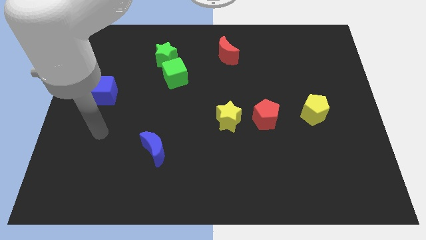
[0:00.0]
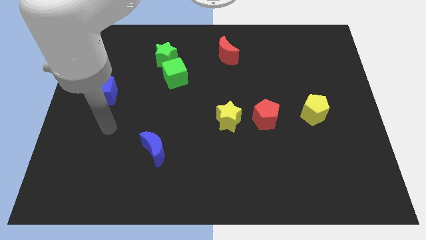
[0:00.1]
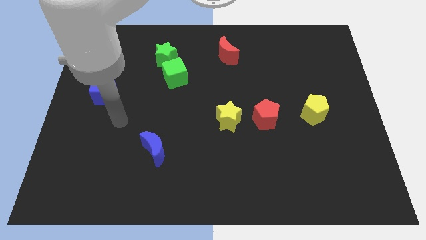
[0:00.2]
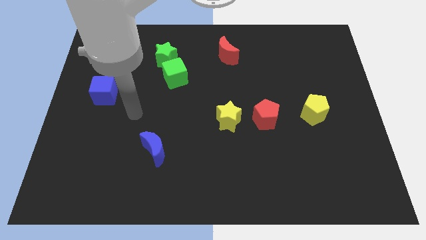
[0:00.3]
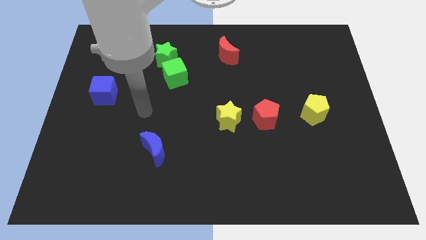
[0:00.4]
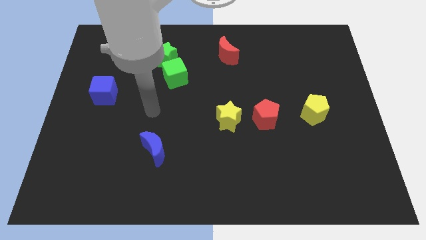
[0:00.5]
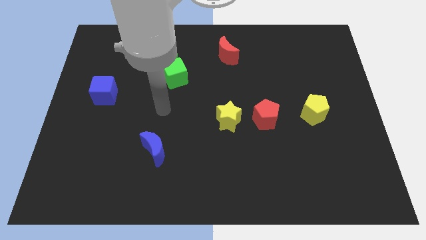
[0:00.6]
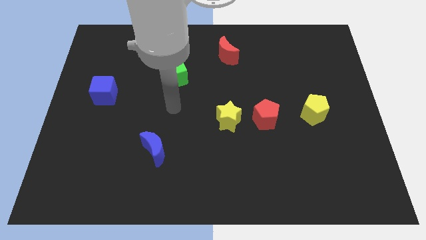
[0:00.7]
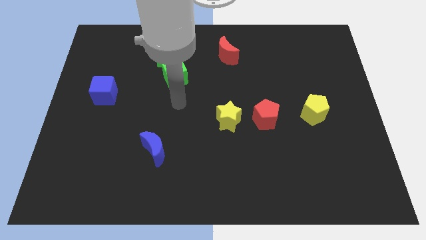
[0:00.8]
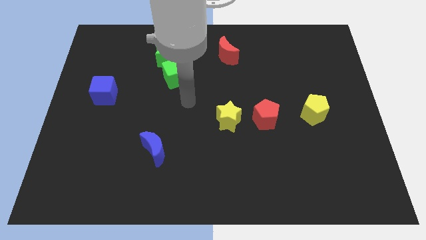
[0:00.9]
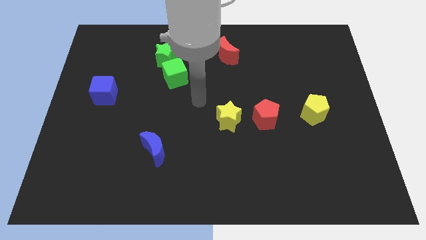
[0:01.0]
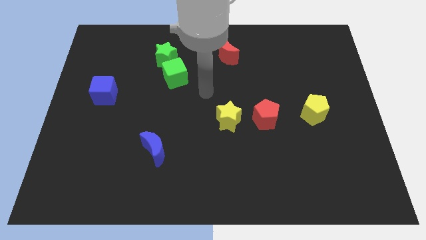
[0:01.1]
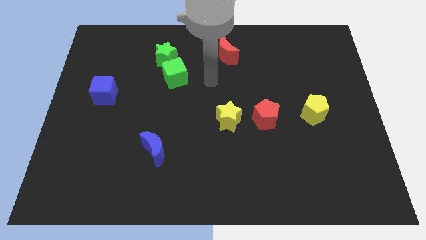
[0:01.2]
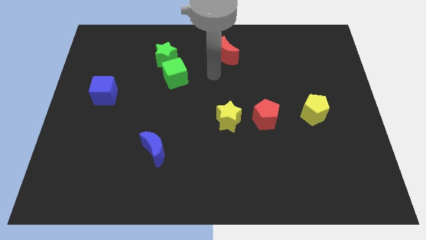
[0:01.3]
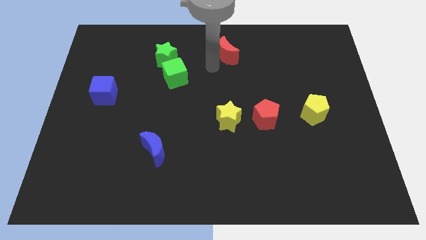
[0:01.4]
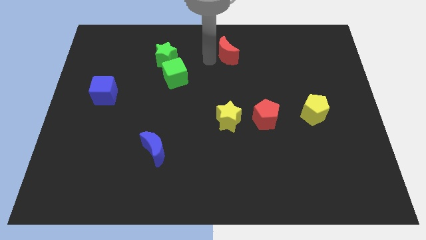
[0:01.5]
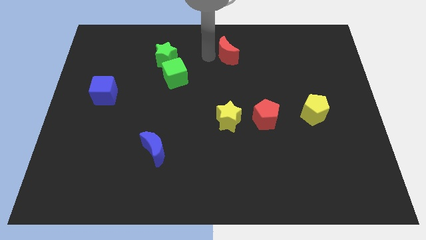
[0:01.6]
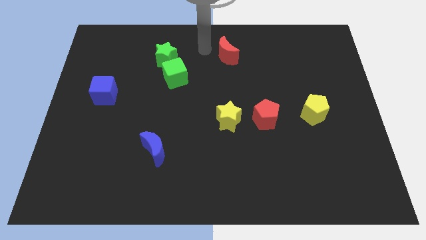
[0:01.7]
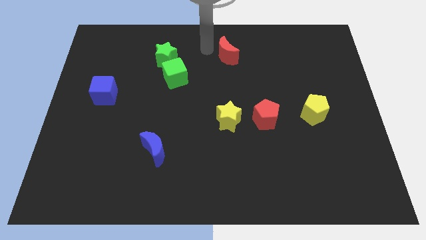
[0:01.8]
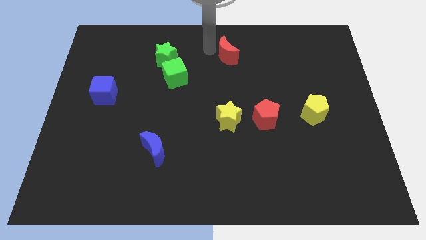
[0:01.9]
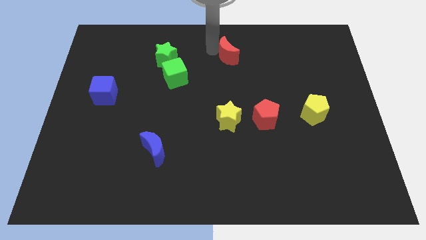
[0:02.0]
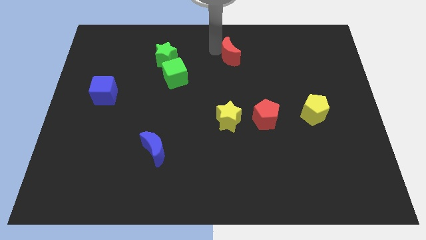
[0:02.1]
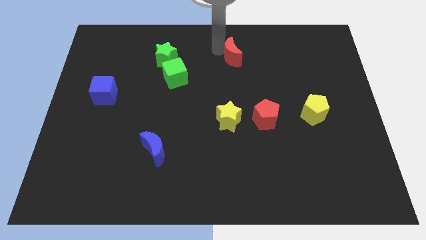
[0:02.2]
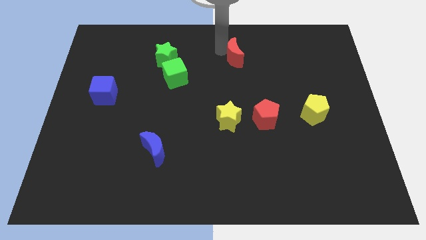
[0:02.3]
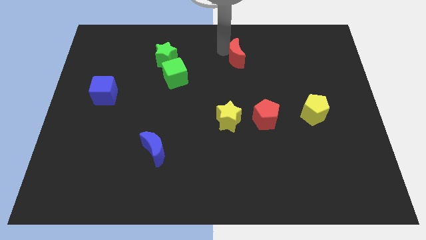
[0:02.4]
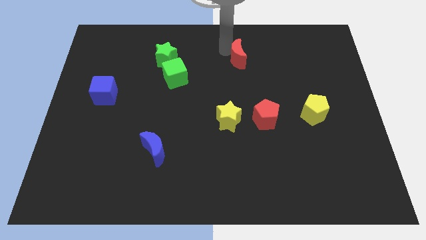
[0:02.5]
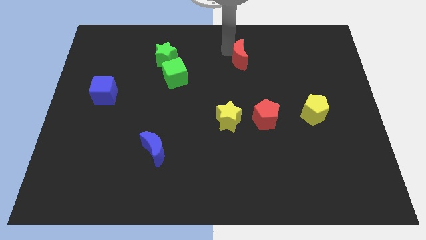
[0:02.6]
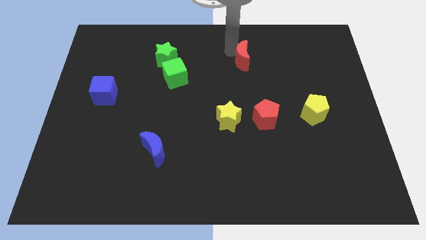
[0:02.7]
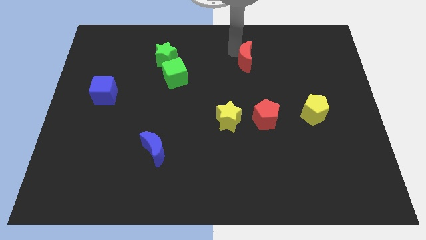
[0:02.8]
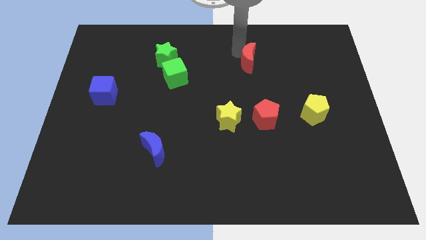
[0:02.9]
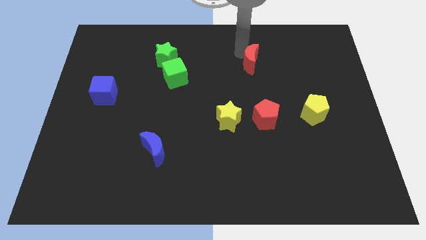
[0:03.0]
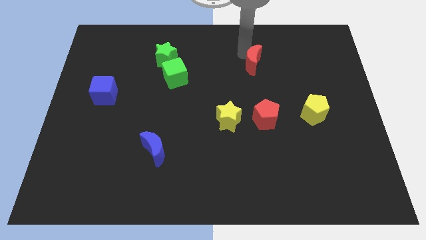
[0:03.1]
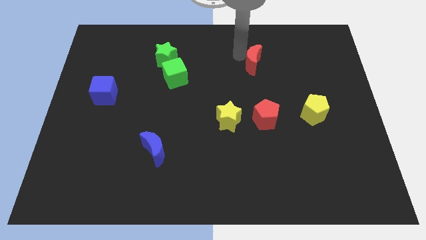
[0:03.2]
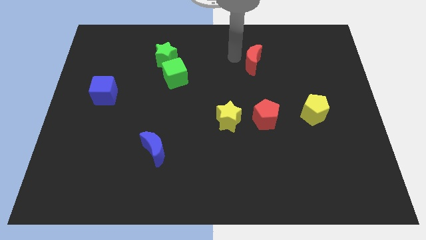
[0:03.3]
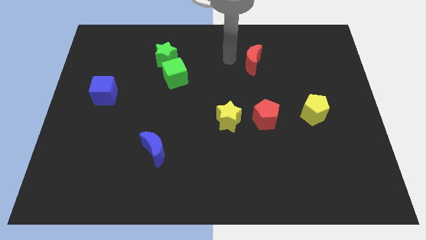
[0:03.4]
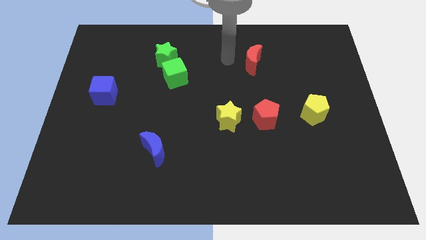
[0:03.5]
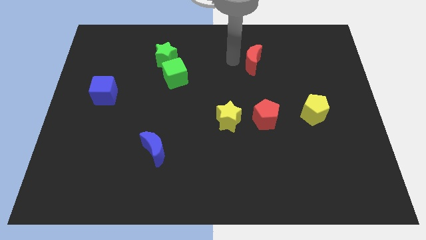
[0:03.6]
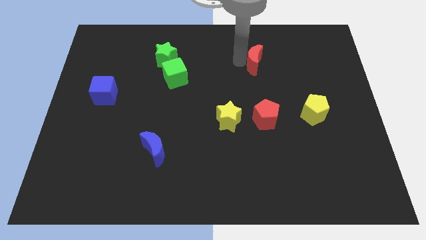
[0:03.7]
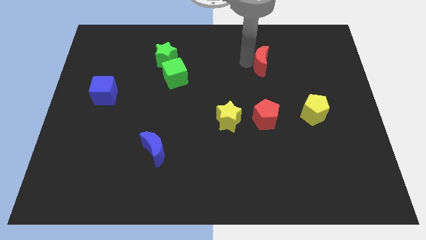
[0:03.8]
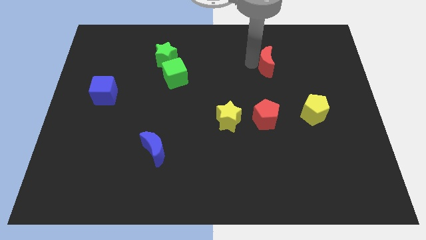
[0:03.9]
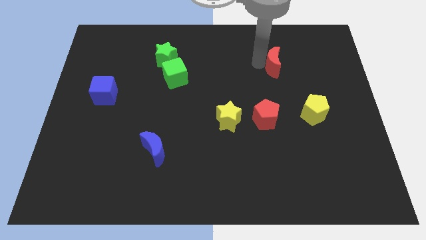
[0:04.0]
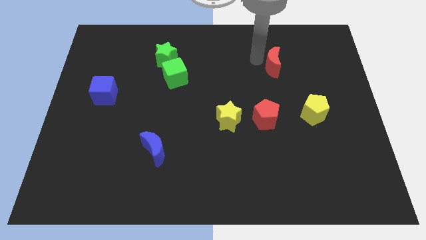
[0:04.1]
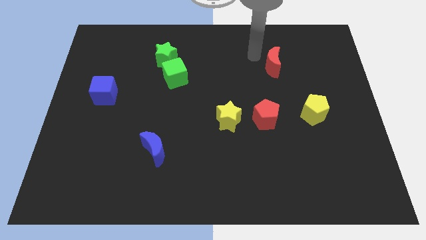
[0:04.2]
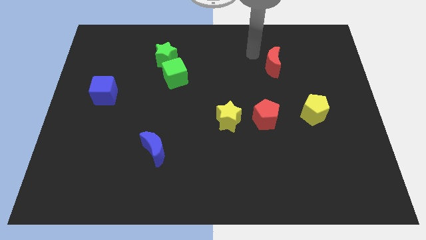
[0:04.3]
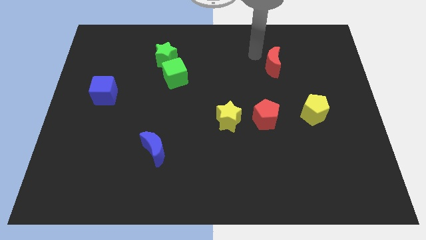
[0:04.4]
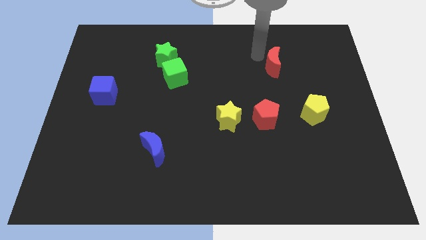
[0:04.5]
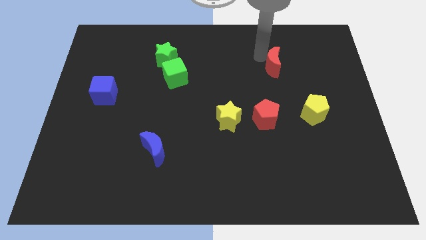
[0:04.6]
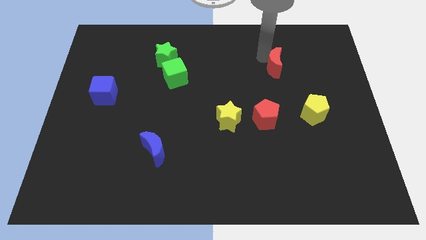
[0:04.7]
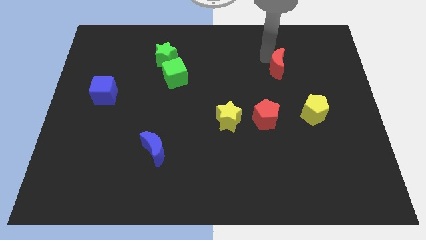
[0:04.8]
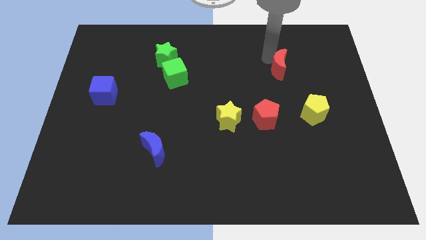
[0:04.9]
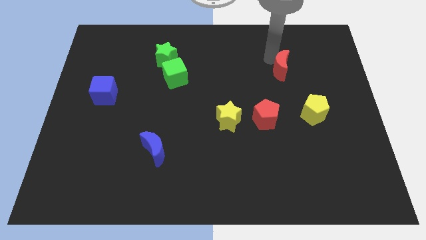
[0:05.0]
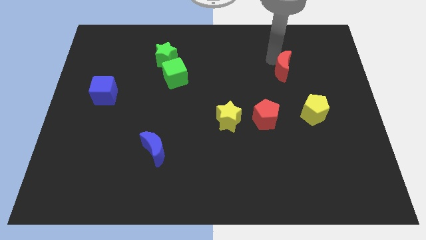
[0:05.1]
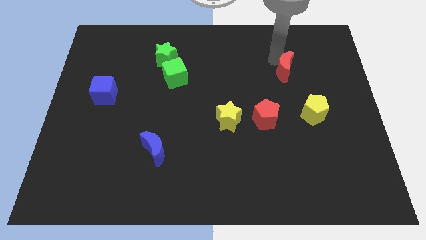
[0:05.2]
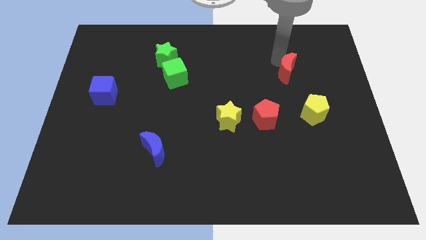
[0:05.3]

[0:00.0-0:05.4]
move the red moon to the top of the yellow pentagon

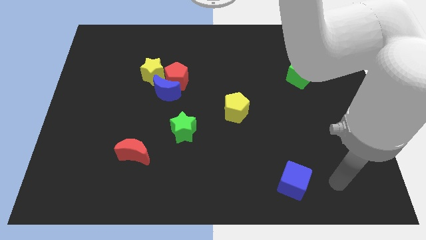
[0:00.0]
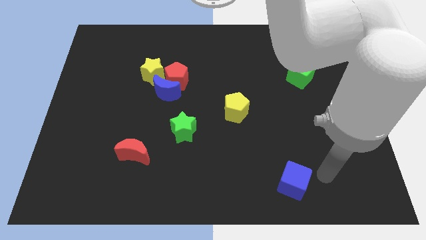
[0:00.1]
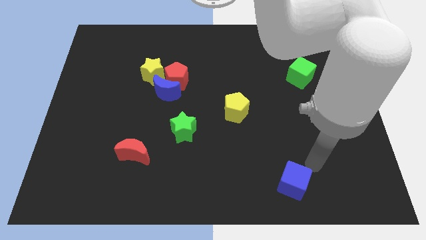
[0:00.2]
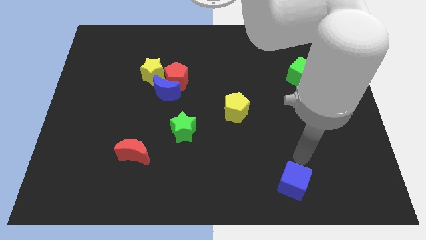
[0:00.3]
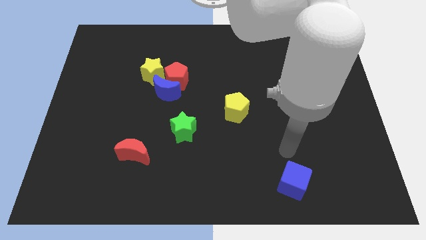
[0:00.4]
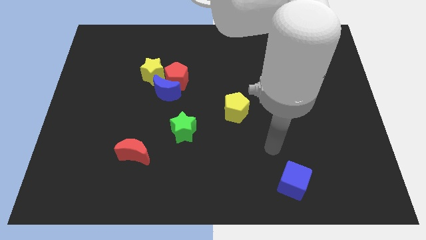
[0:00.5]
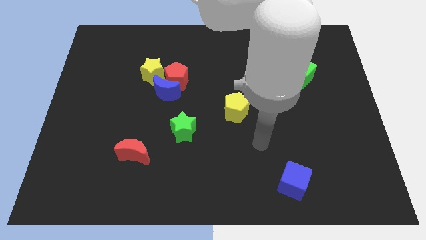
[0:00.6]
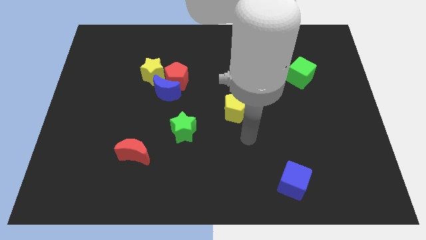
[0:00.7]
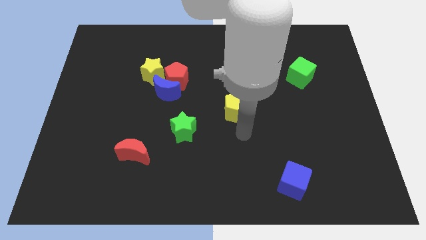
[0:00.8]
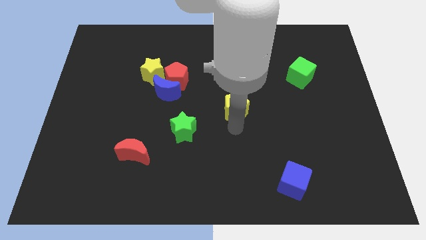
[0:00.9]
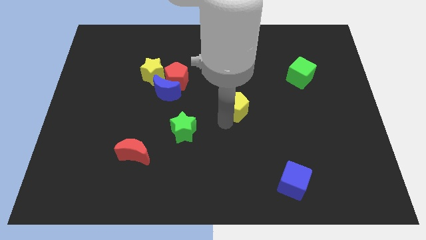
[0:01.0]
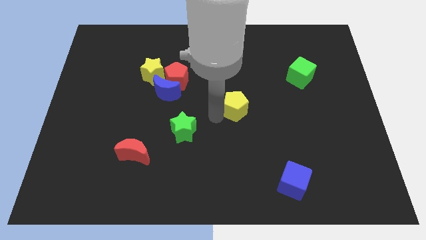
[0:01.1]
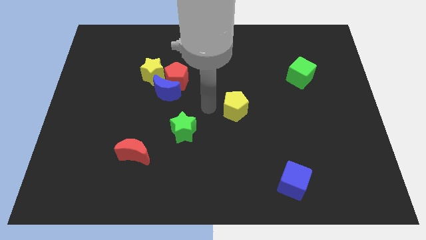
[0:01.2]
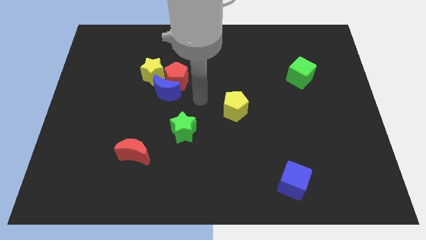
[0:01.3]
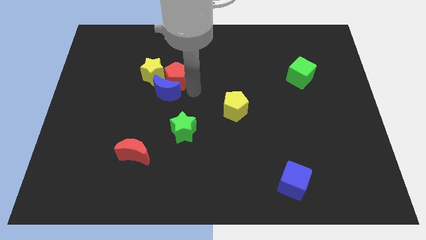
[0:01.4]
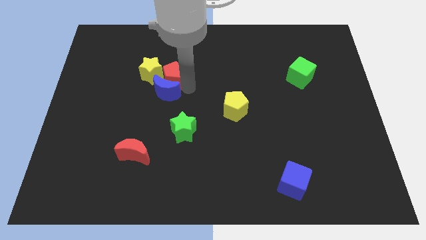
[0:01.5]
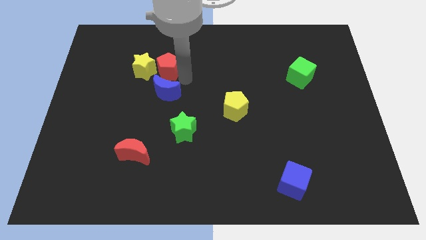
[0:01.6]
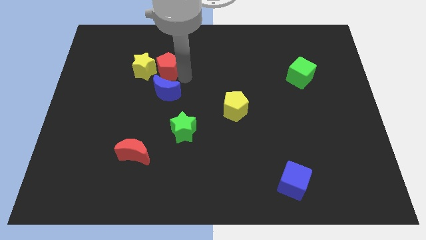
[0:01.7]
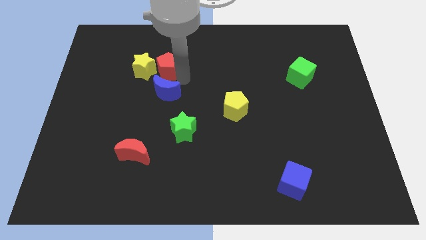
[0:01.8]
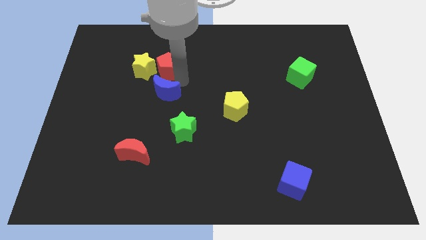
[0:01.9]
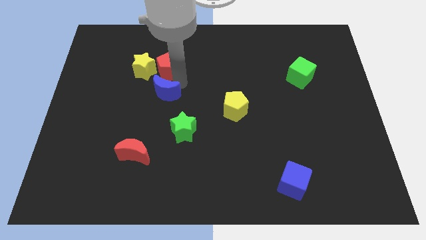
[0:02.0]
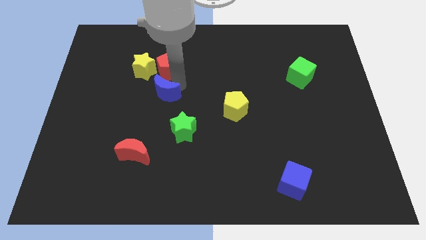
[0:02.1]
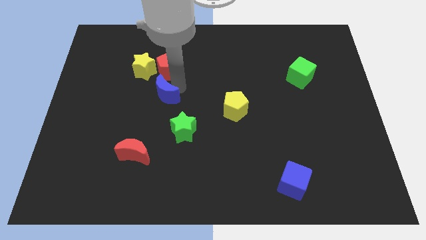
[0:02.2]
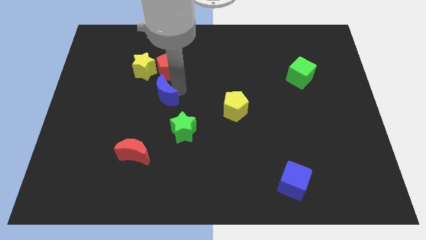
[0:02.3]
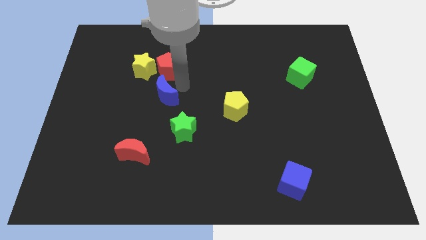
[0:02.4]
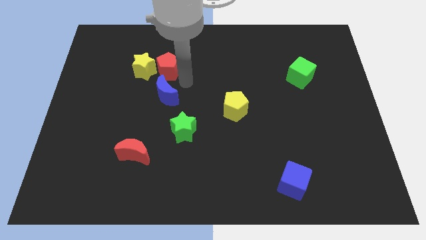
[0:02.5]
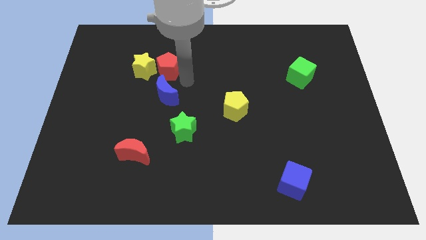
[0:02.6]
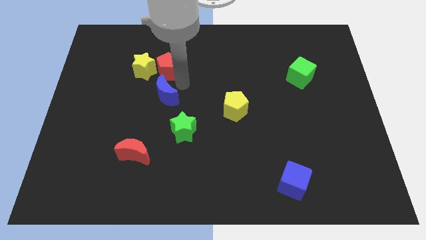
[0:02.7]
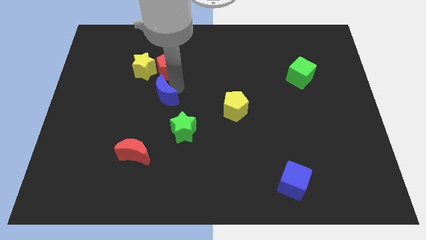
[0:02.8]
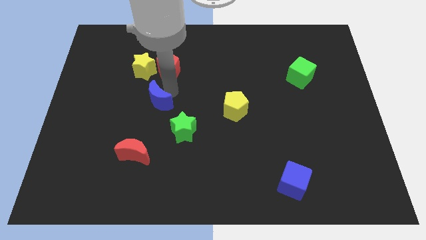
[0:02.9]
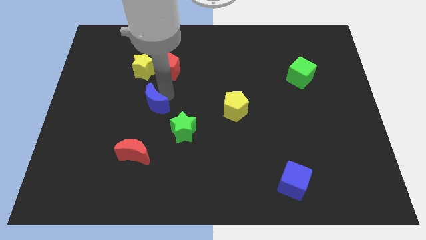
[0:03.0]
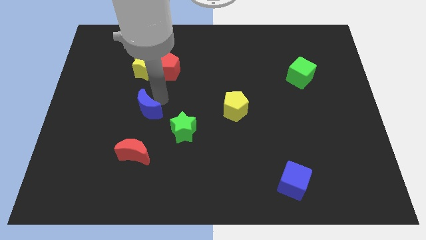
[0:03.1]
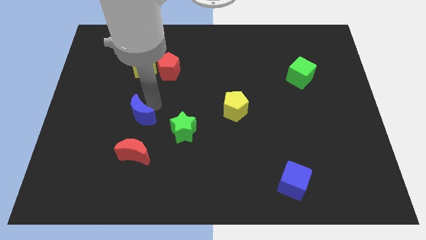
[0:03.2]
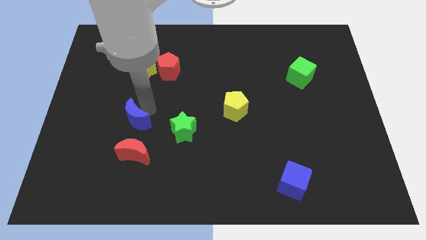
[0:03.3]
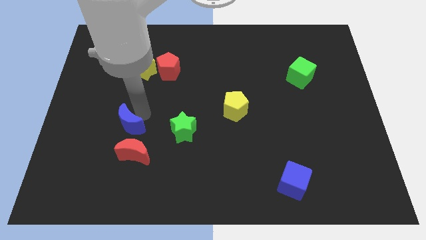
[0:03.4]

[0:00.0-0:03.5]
push the blue moon to the top left of the red moon
